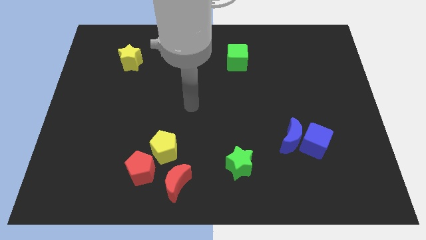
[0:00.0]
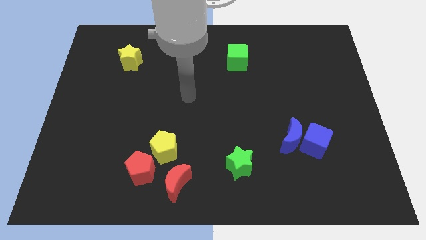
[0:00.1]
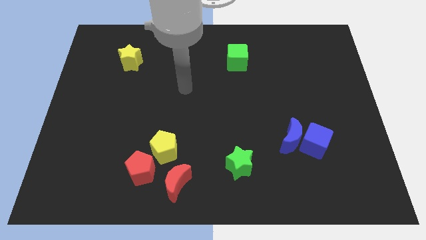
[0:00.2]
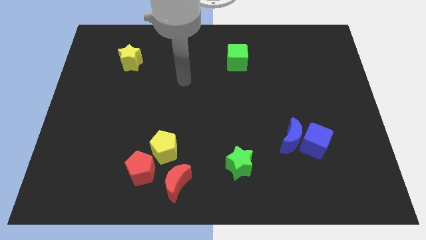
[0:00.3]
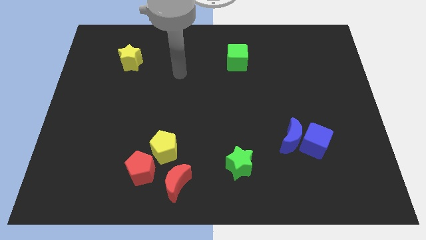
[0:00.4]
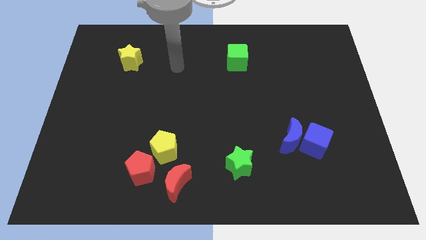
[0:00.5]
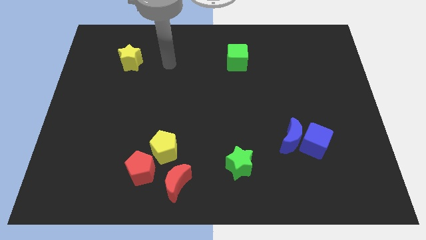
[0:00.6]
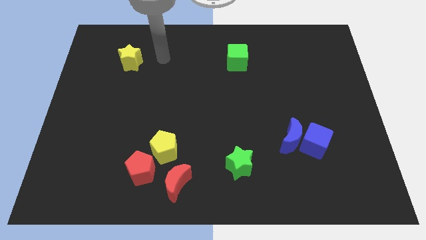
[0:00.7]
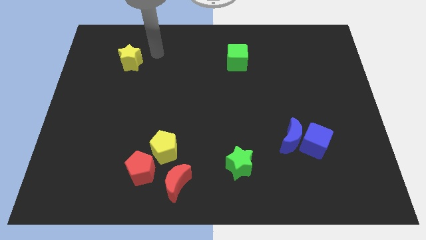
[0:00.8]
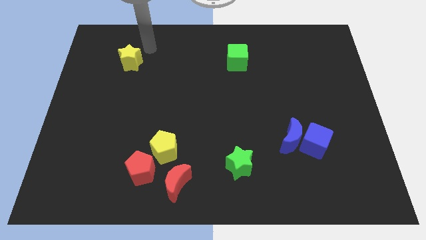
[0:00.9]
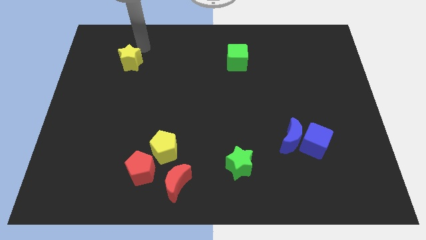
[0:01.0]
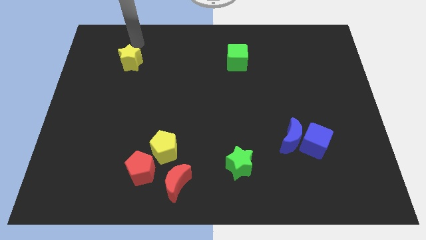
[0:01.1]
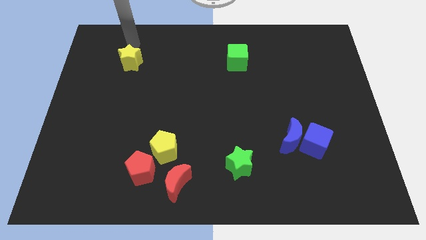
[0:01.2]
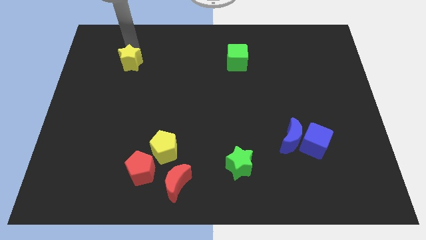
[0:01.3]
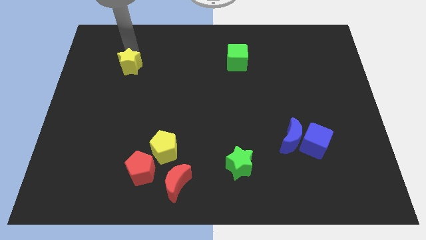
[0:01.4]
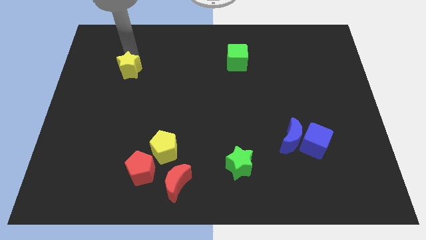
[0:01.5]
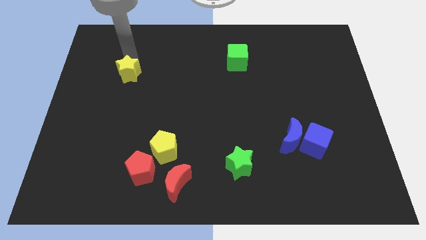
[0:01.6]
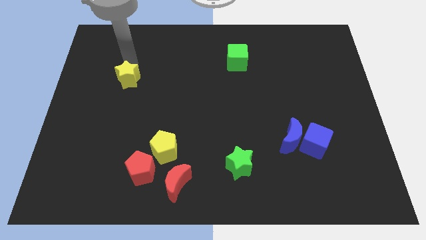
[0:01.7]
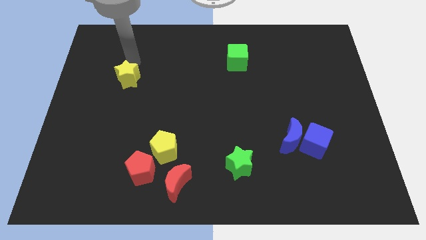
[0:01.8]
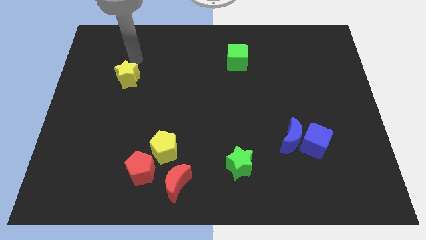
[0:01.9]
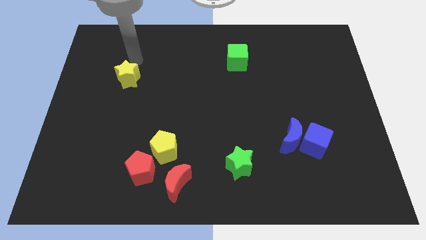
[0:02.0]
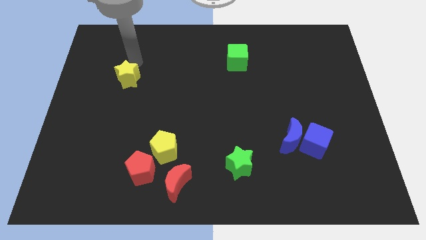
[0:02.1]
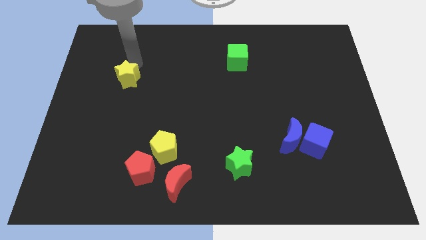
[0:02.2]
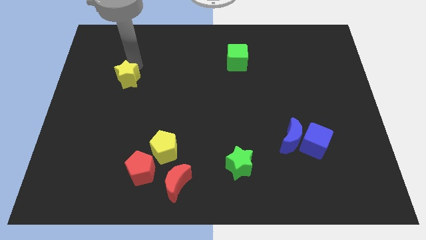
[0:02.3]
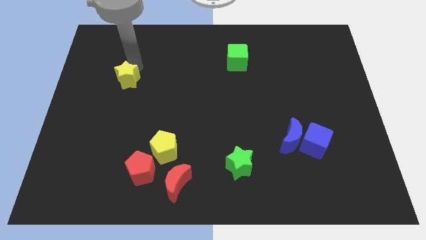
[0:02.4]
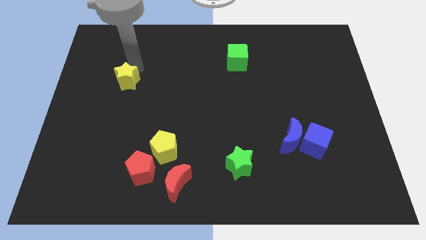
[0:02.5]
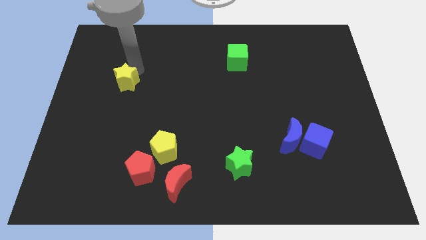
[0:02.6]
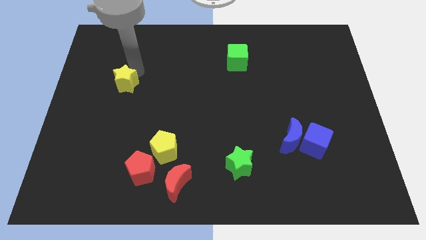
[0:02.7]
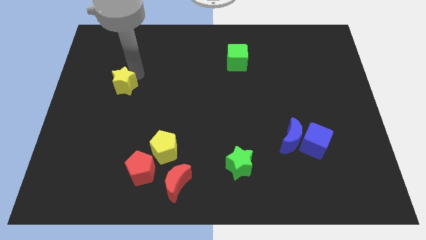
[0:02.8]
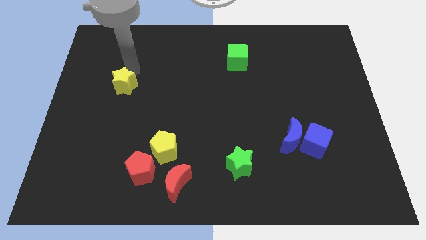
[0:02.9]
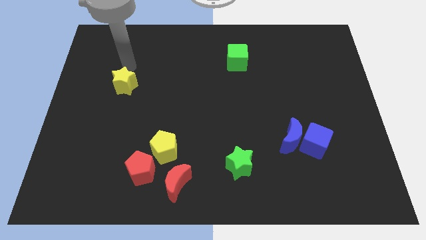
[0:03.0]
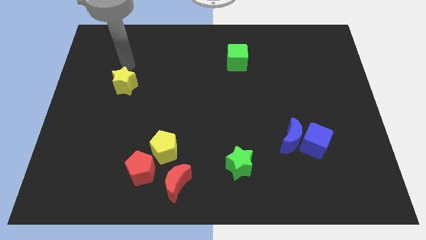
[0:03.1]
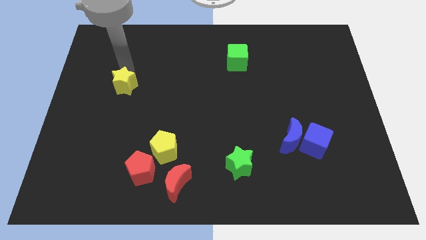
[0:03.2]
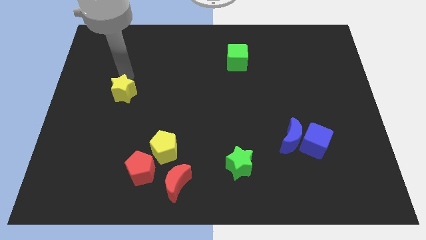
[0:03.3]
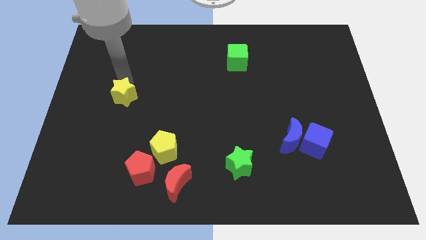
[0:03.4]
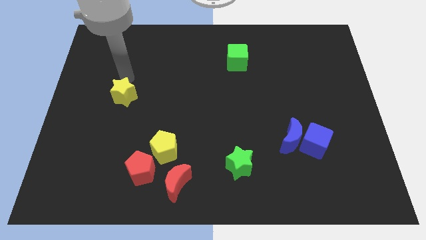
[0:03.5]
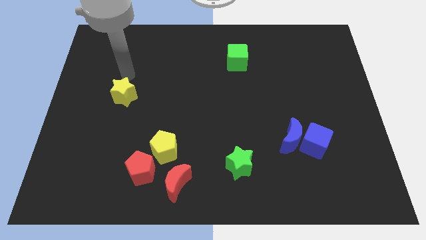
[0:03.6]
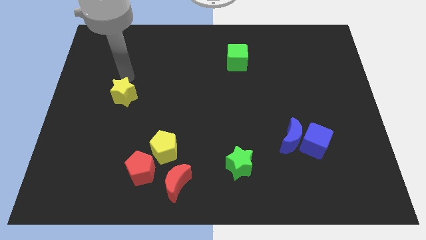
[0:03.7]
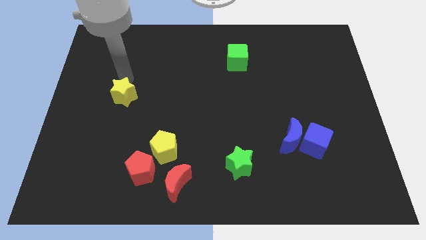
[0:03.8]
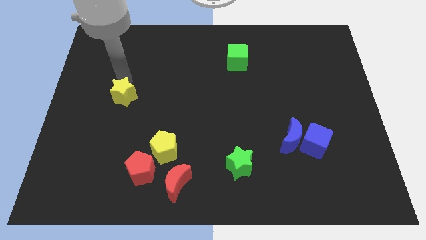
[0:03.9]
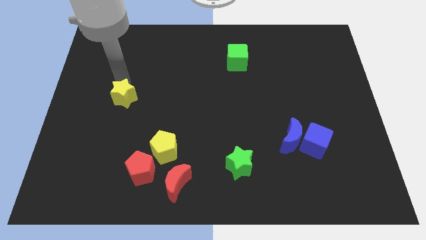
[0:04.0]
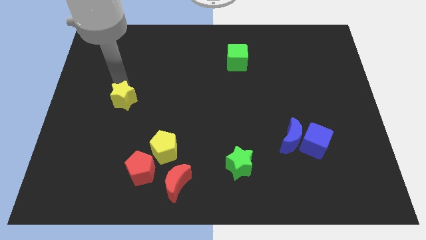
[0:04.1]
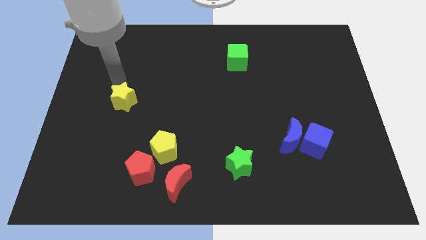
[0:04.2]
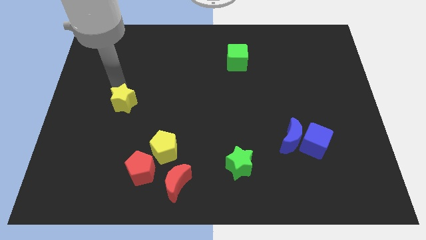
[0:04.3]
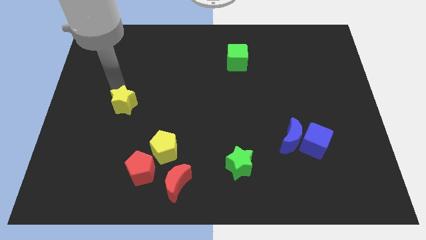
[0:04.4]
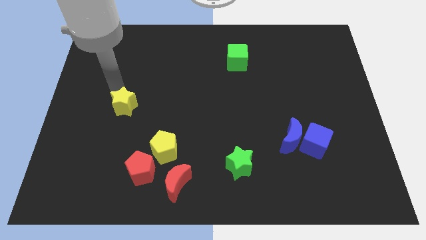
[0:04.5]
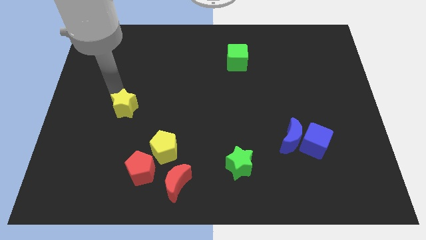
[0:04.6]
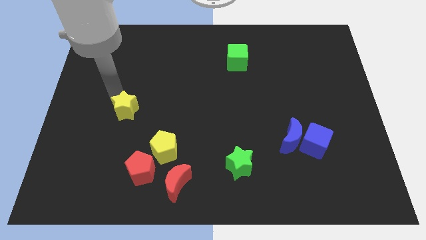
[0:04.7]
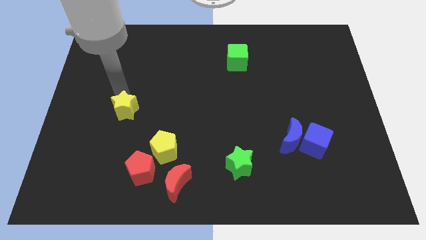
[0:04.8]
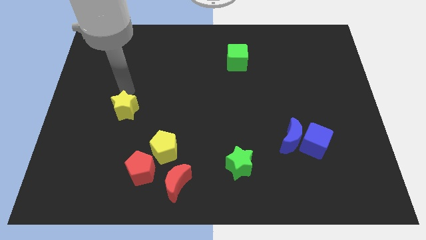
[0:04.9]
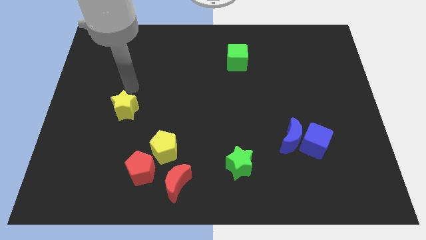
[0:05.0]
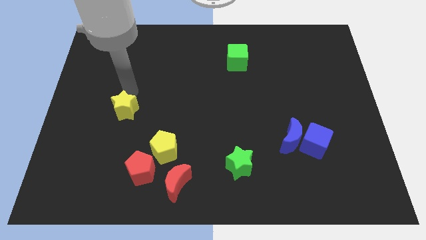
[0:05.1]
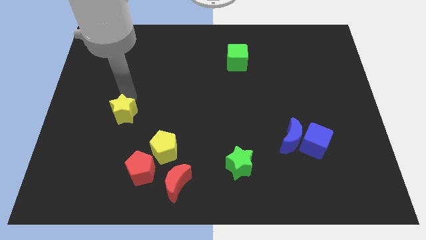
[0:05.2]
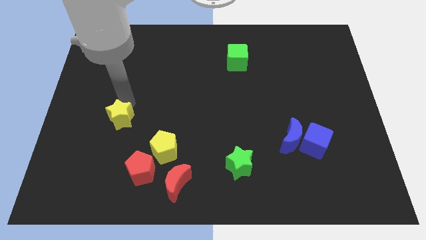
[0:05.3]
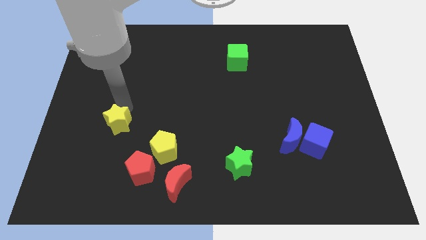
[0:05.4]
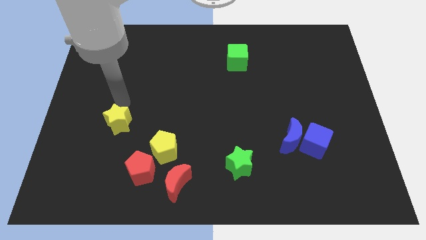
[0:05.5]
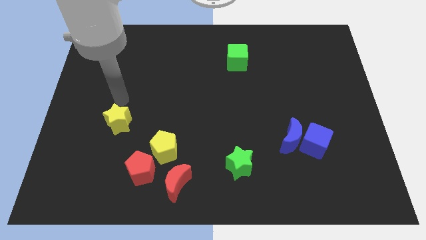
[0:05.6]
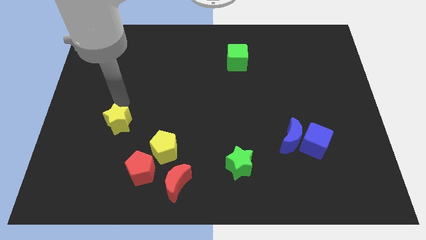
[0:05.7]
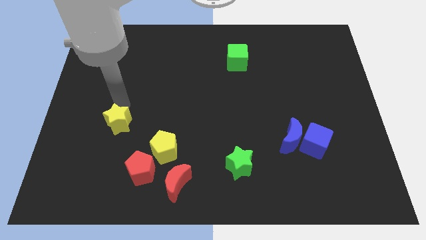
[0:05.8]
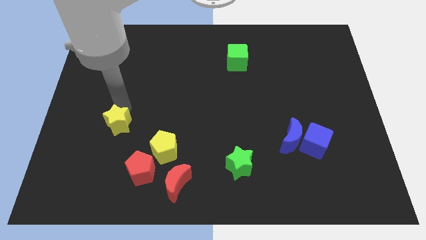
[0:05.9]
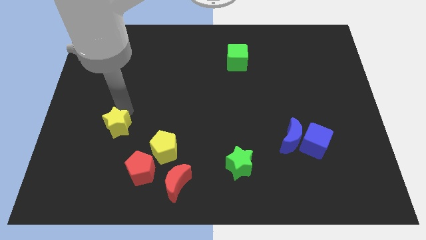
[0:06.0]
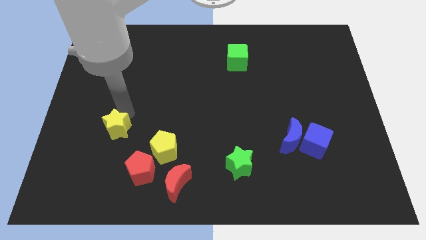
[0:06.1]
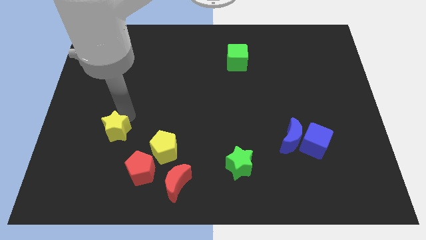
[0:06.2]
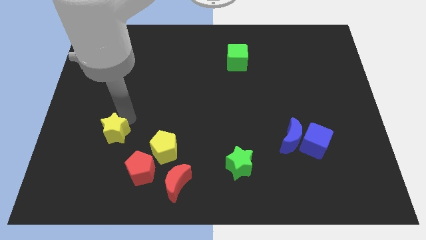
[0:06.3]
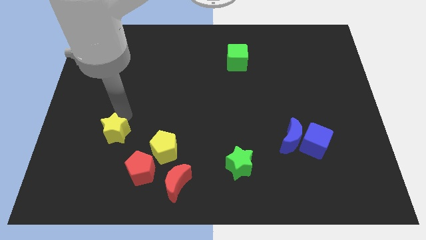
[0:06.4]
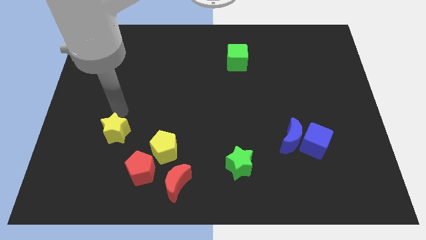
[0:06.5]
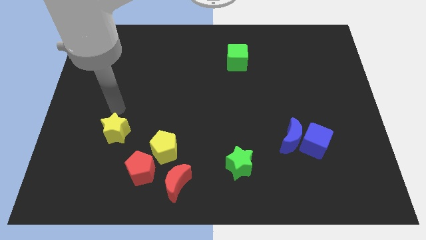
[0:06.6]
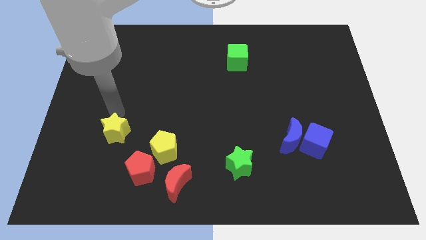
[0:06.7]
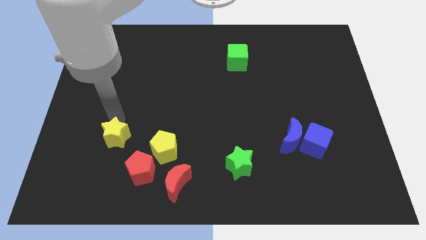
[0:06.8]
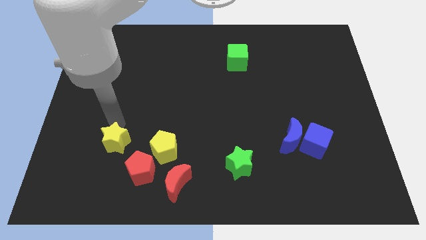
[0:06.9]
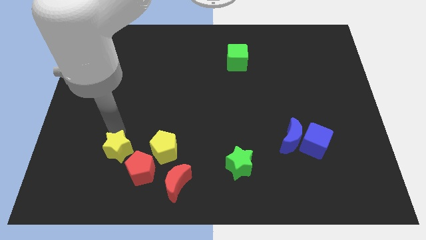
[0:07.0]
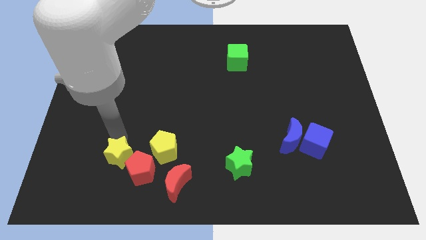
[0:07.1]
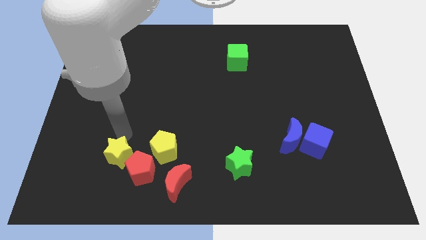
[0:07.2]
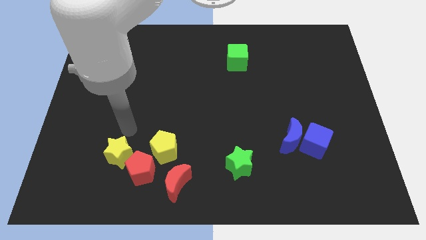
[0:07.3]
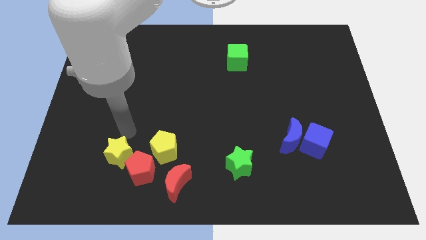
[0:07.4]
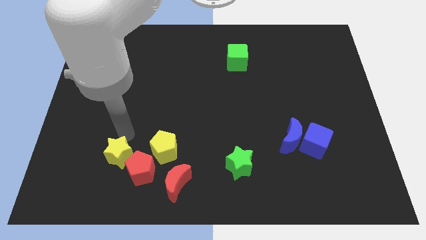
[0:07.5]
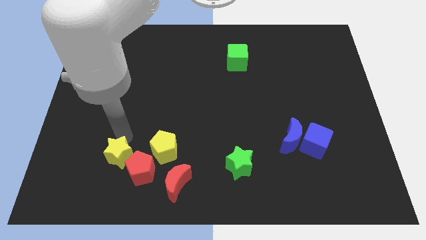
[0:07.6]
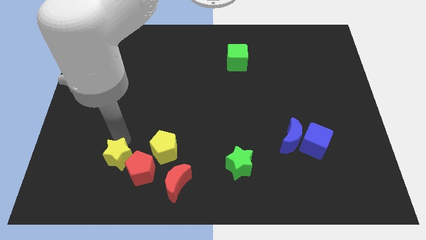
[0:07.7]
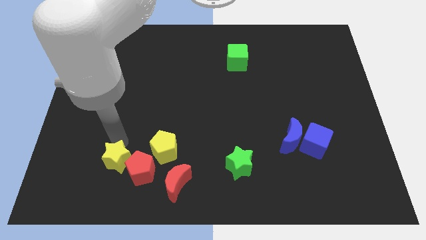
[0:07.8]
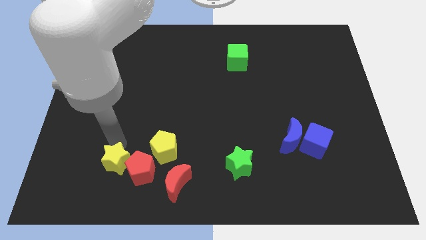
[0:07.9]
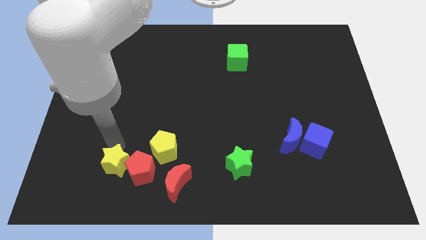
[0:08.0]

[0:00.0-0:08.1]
slide the yellow star left of the red moon
